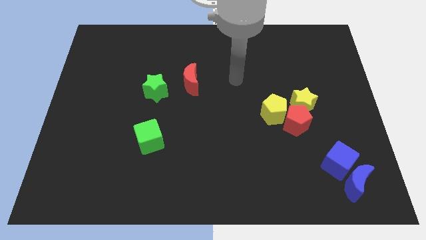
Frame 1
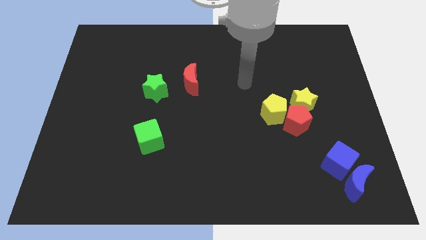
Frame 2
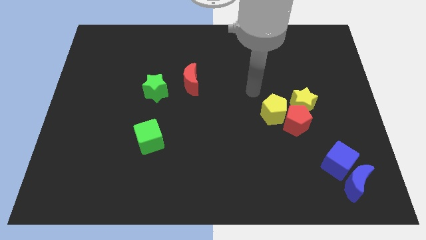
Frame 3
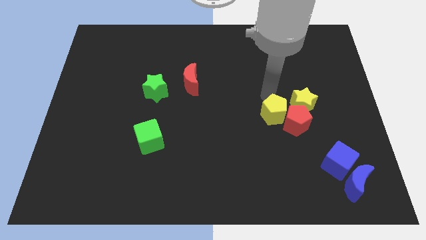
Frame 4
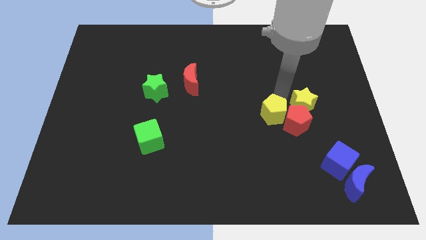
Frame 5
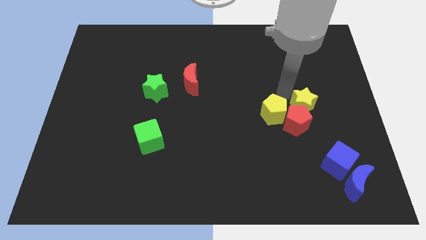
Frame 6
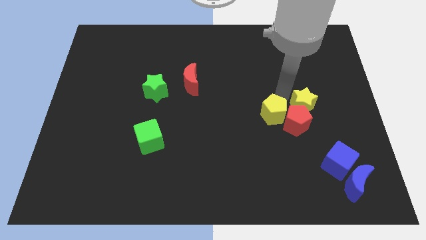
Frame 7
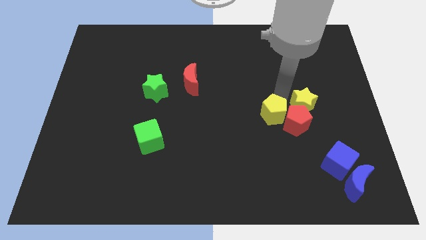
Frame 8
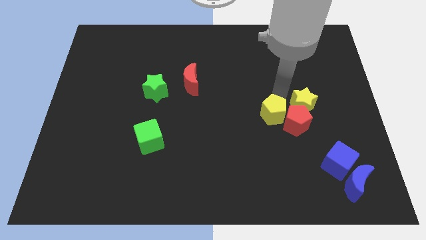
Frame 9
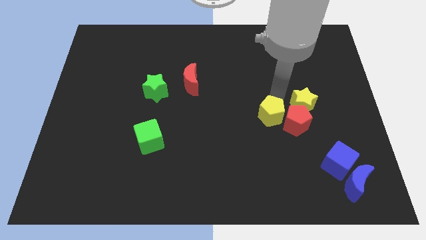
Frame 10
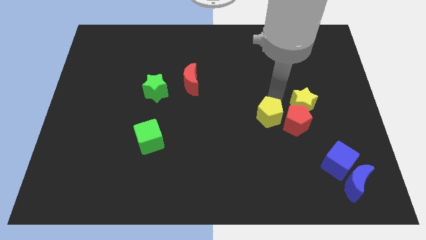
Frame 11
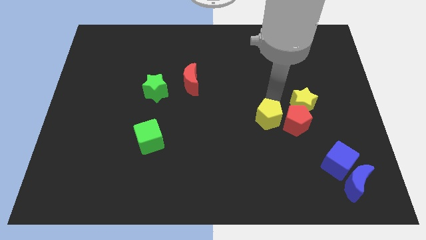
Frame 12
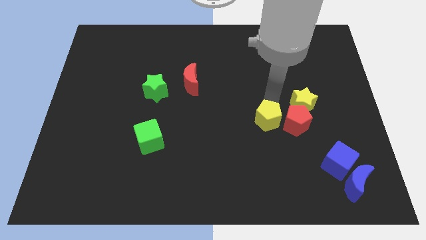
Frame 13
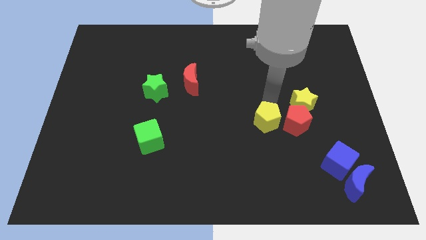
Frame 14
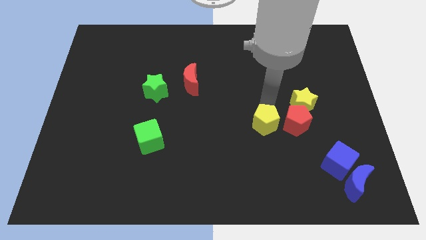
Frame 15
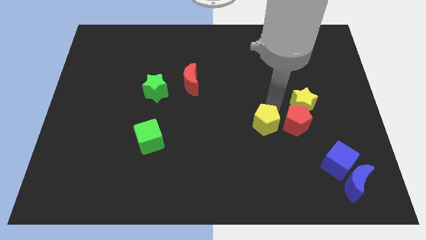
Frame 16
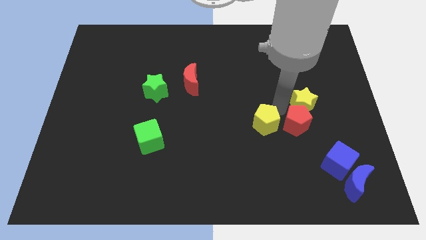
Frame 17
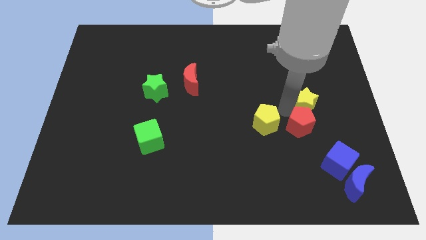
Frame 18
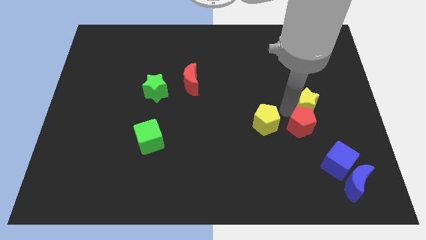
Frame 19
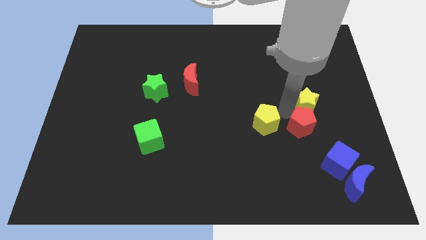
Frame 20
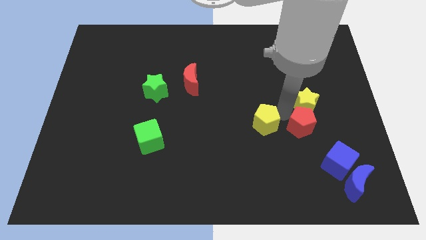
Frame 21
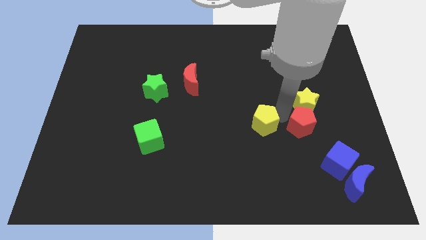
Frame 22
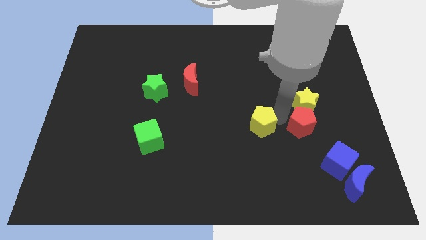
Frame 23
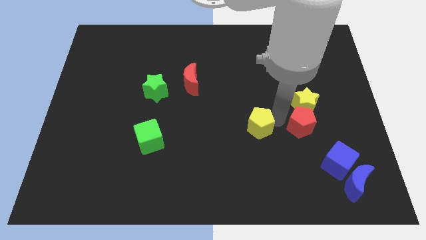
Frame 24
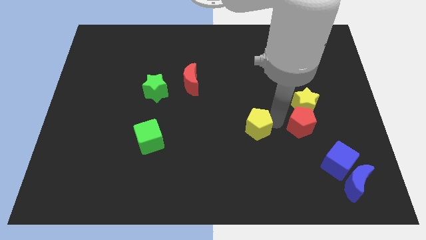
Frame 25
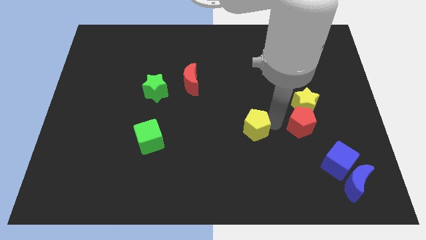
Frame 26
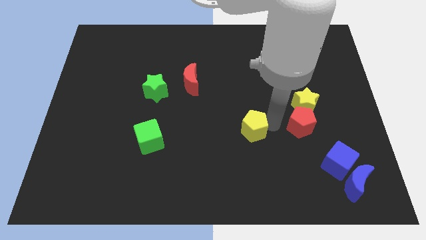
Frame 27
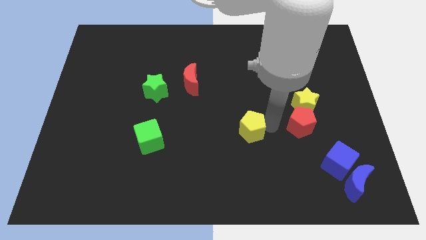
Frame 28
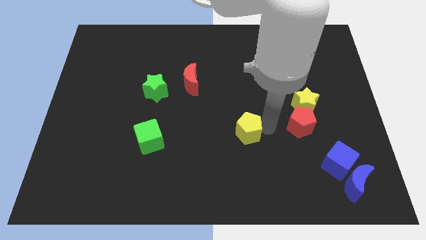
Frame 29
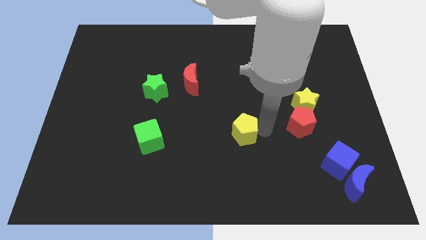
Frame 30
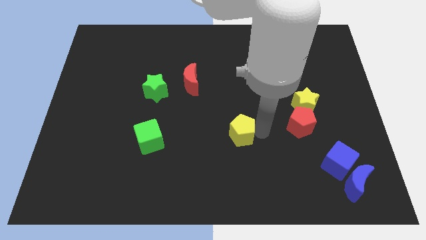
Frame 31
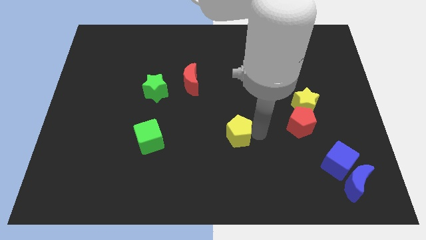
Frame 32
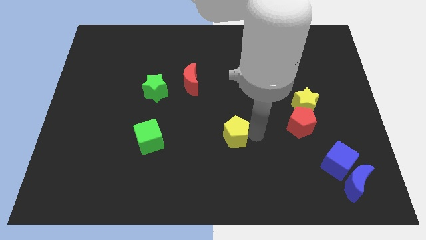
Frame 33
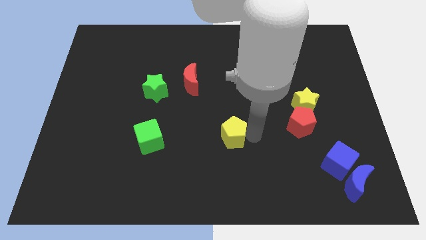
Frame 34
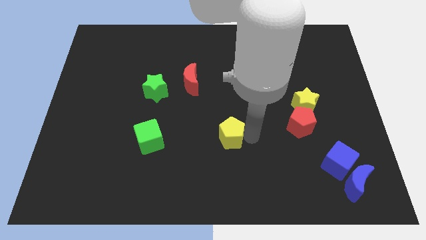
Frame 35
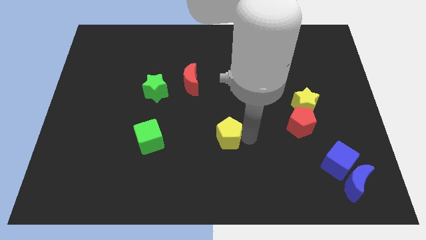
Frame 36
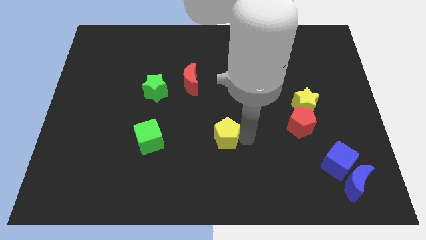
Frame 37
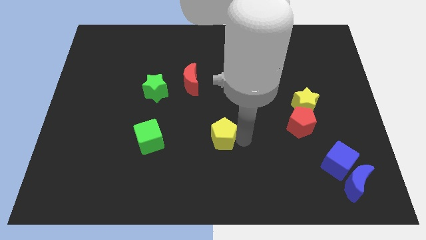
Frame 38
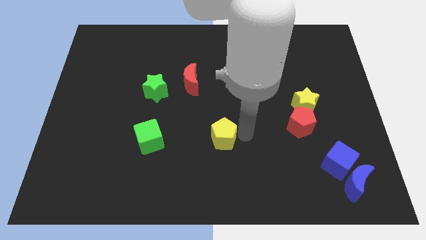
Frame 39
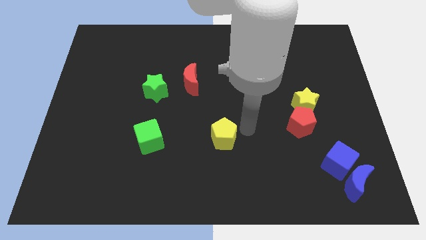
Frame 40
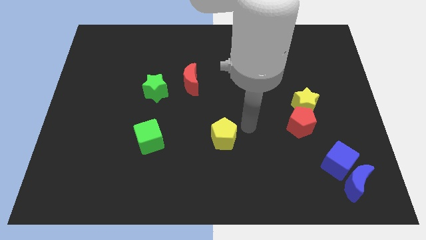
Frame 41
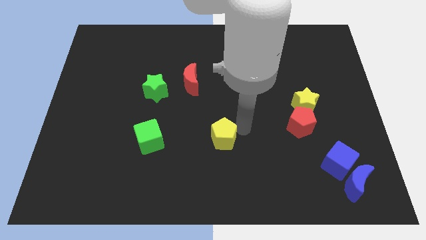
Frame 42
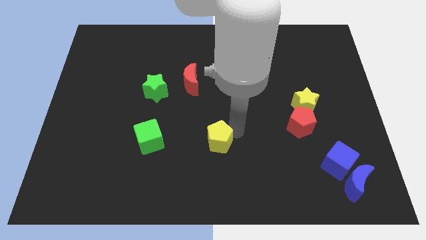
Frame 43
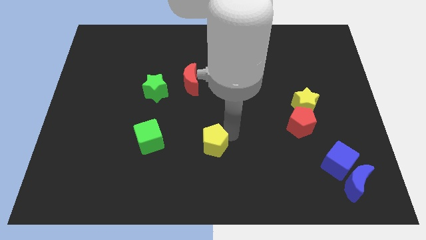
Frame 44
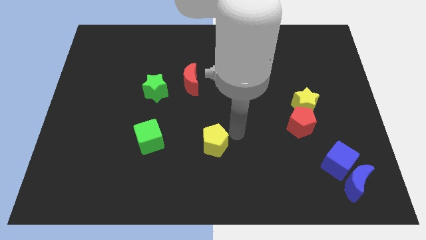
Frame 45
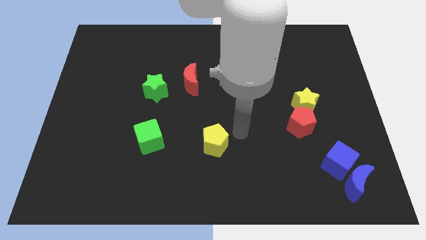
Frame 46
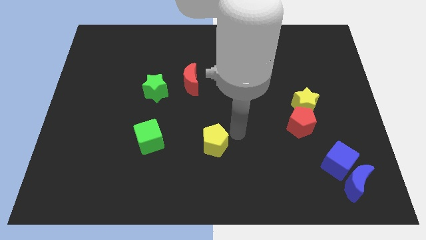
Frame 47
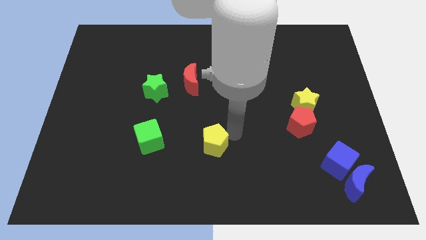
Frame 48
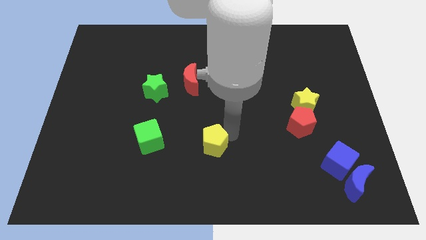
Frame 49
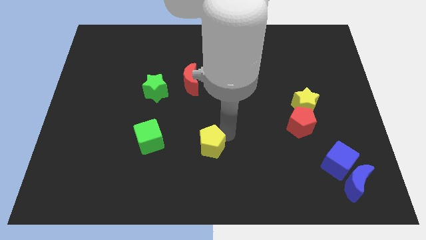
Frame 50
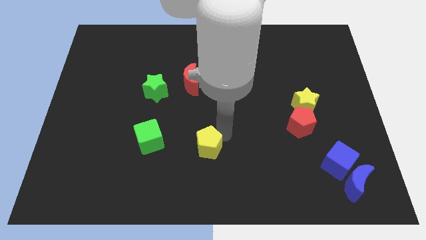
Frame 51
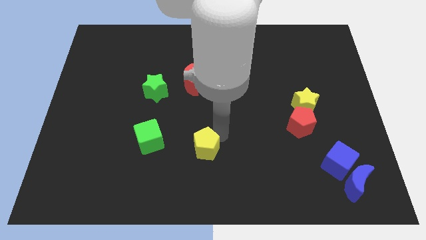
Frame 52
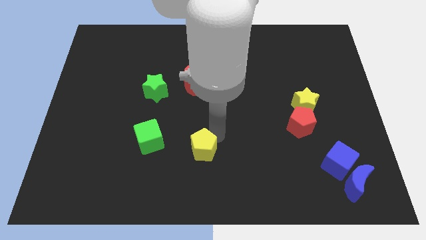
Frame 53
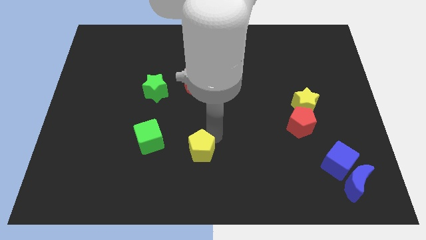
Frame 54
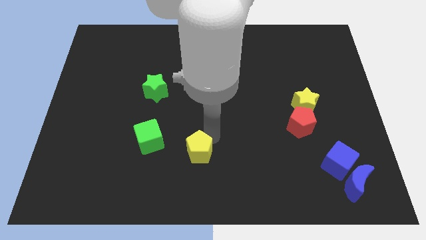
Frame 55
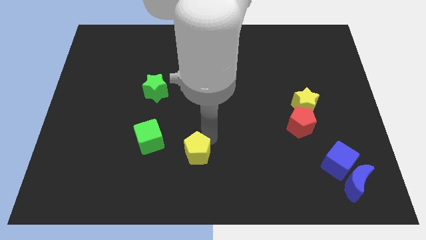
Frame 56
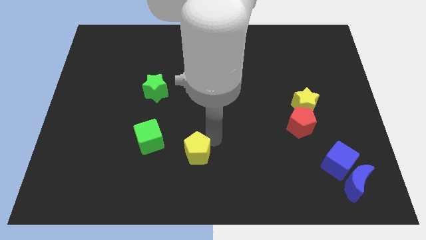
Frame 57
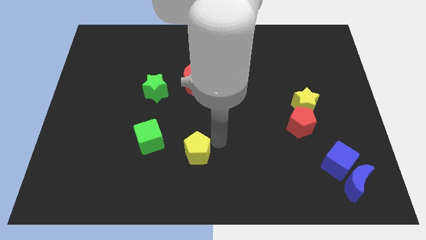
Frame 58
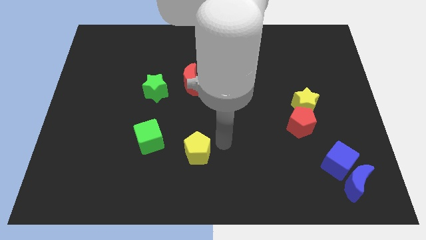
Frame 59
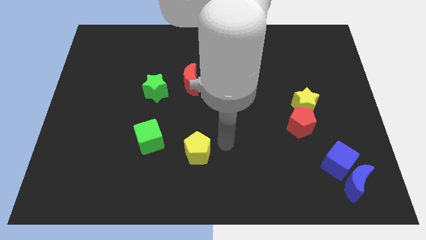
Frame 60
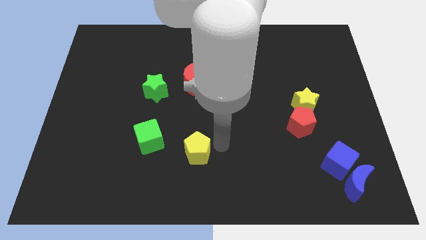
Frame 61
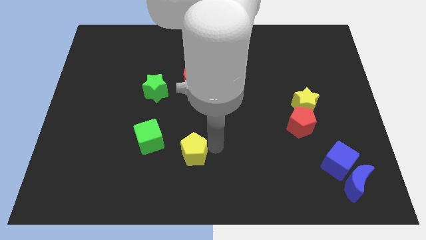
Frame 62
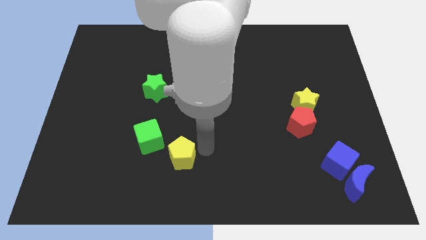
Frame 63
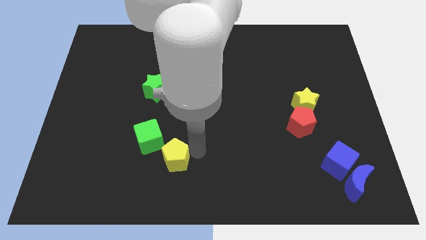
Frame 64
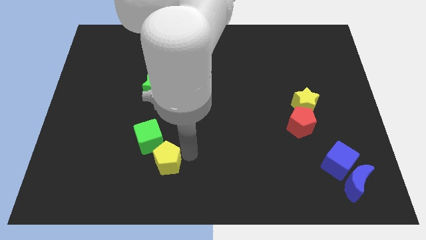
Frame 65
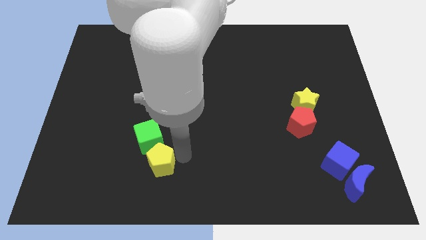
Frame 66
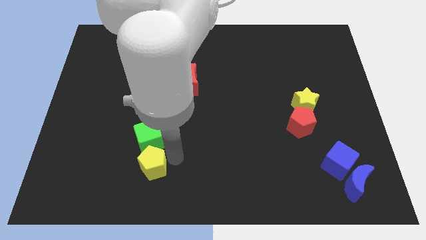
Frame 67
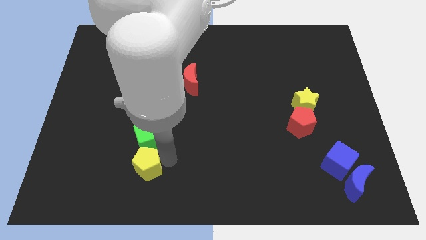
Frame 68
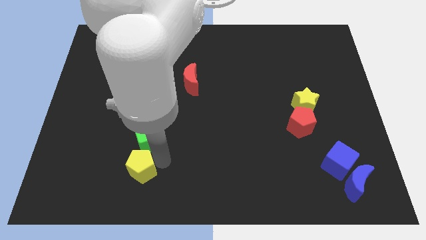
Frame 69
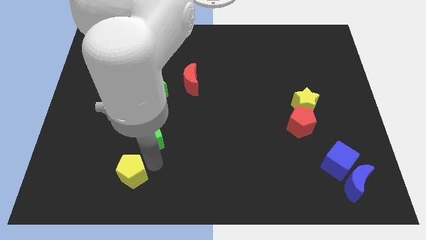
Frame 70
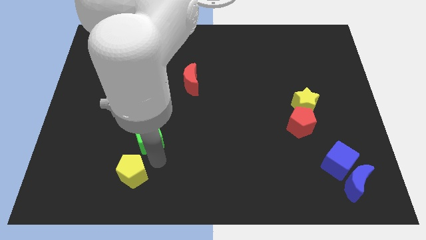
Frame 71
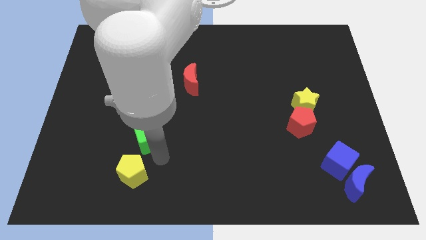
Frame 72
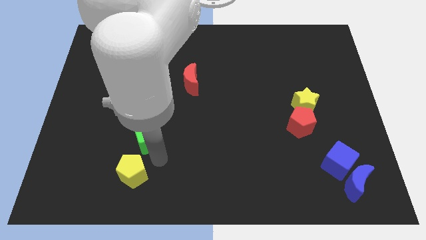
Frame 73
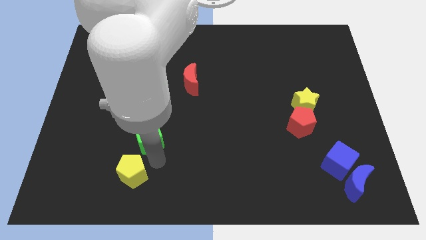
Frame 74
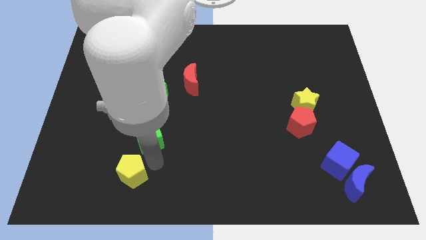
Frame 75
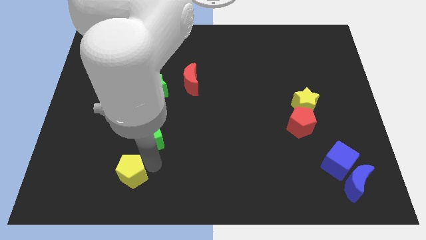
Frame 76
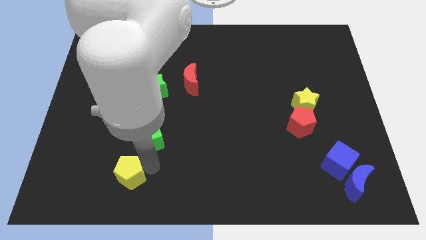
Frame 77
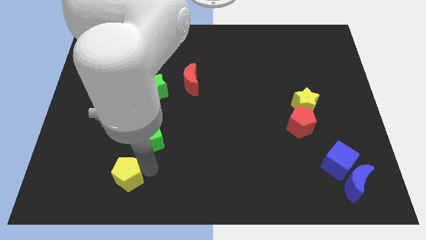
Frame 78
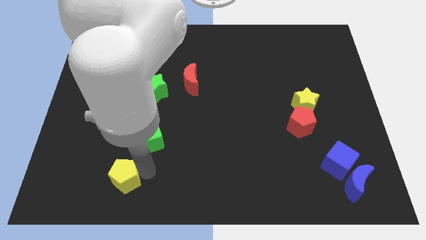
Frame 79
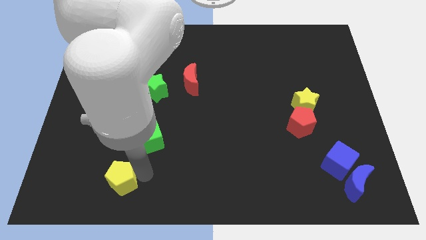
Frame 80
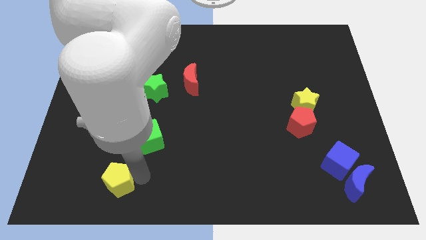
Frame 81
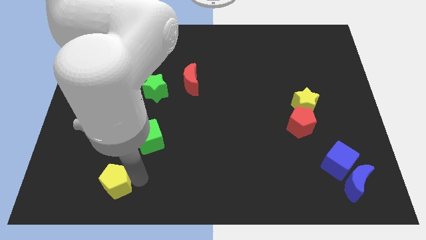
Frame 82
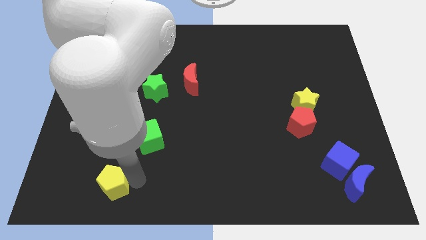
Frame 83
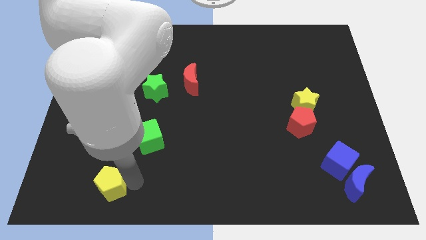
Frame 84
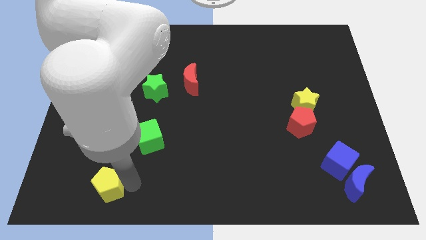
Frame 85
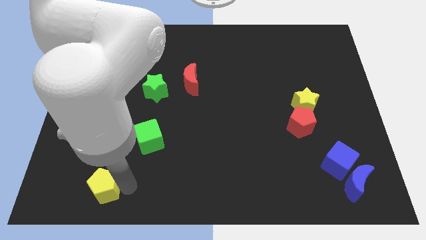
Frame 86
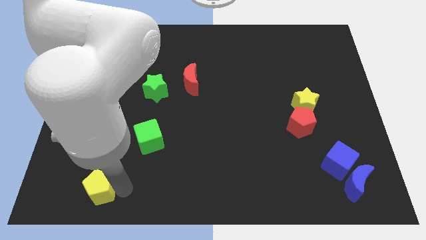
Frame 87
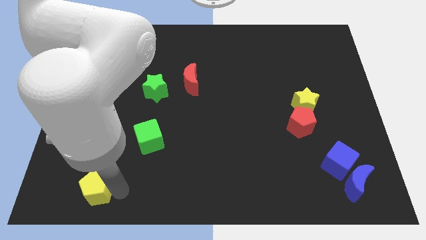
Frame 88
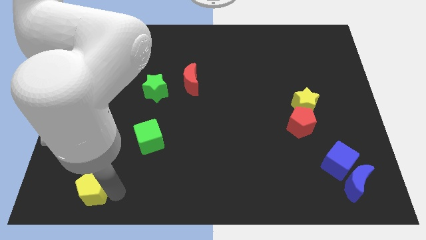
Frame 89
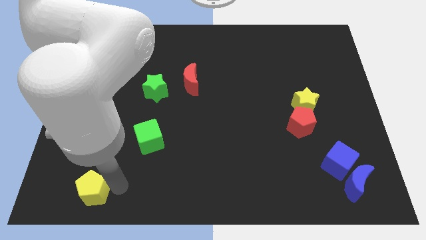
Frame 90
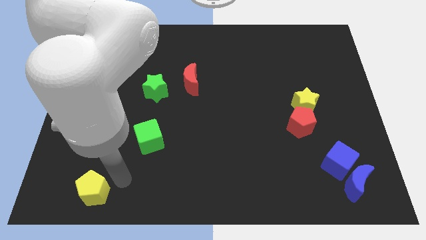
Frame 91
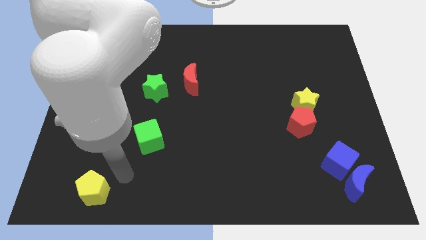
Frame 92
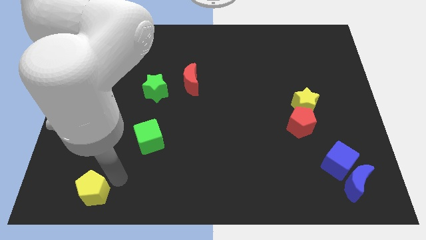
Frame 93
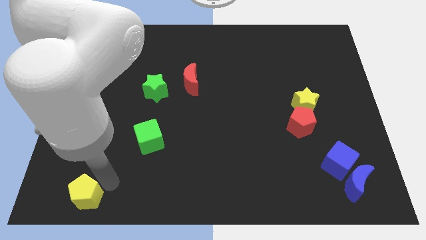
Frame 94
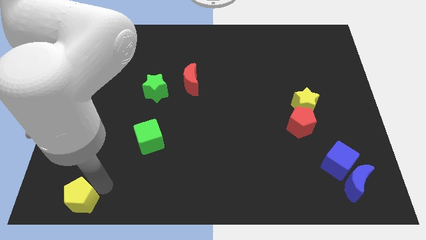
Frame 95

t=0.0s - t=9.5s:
put the yellow pentagon to the bottom left corner
